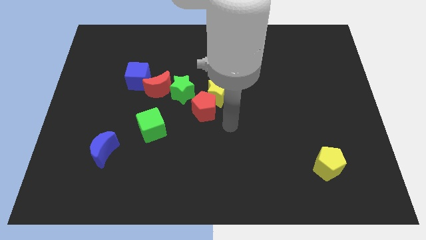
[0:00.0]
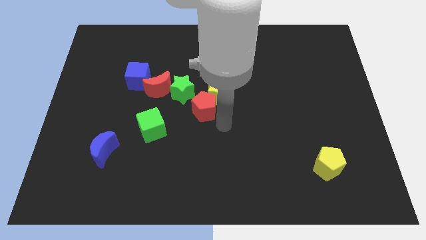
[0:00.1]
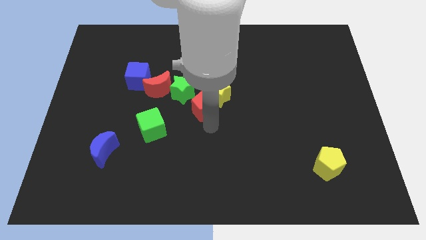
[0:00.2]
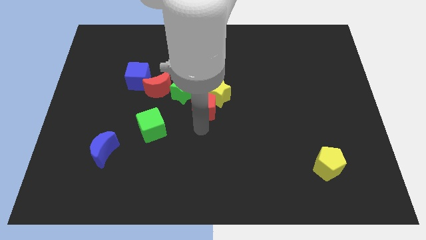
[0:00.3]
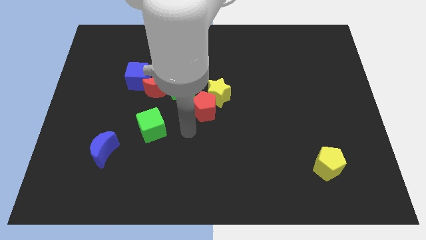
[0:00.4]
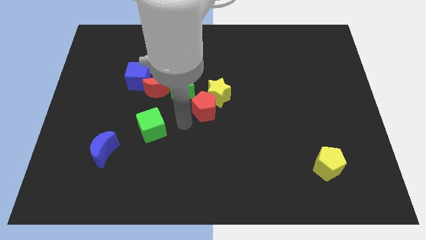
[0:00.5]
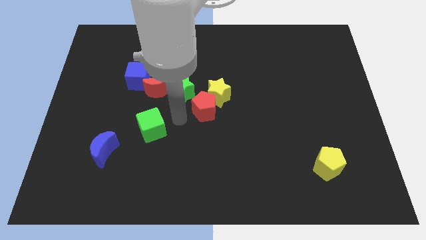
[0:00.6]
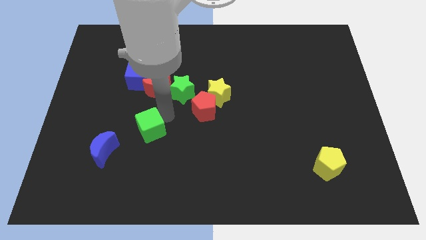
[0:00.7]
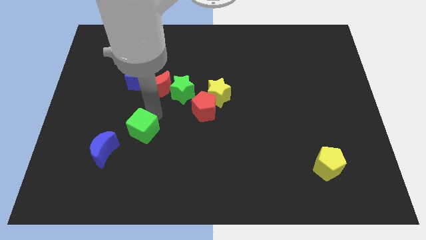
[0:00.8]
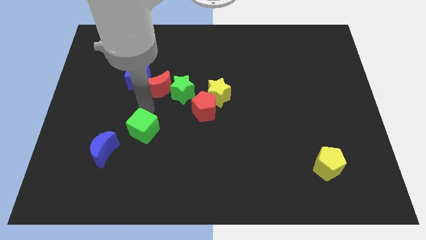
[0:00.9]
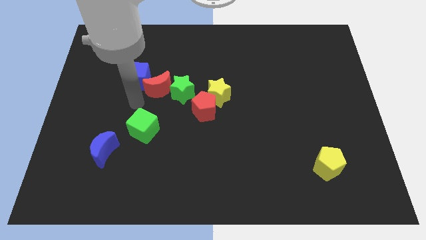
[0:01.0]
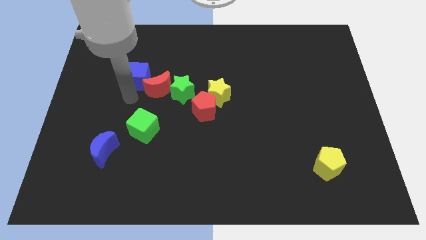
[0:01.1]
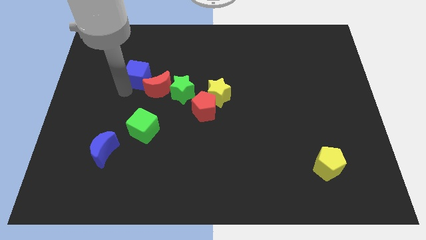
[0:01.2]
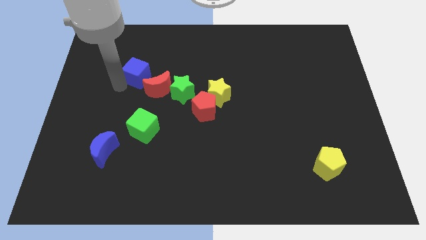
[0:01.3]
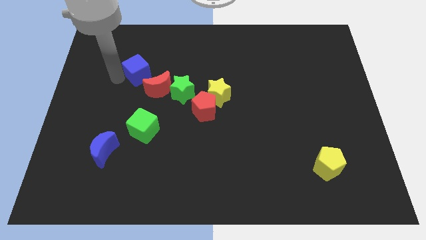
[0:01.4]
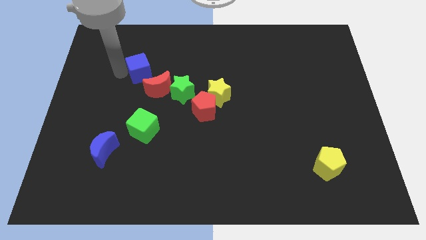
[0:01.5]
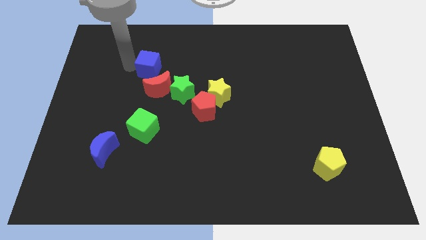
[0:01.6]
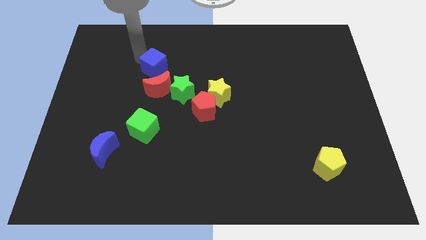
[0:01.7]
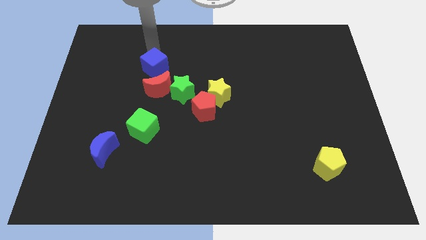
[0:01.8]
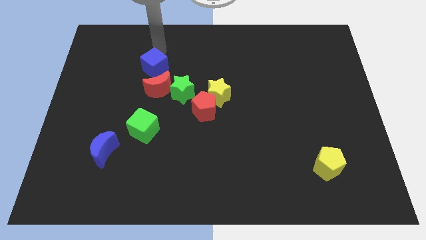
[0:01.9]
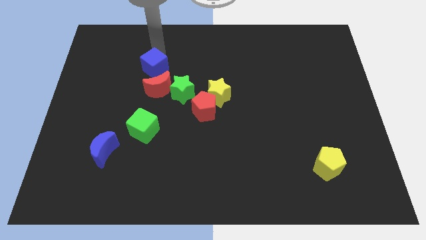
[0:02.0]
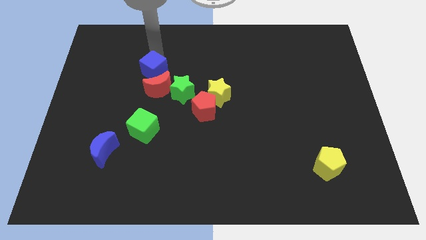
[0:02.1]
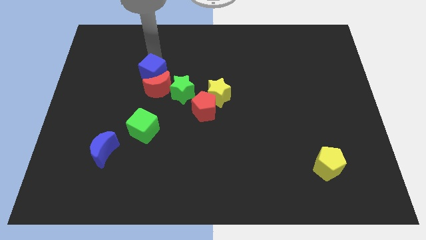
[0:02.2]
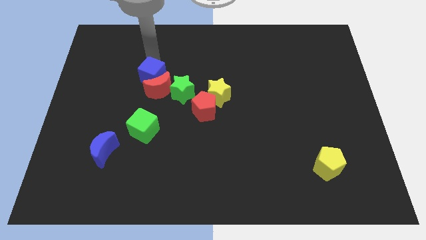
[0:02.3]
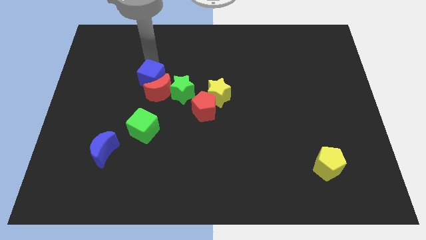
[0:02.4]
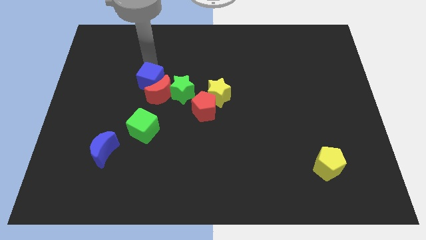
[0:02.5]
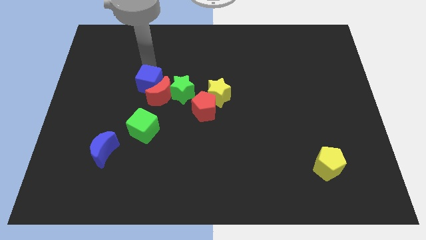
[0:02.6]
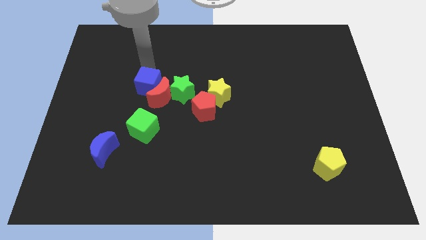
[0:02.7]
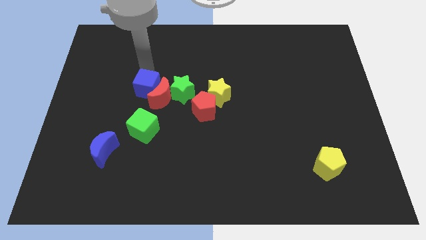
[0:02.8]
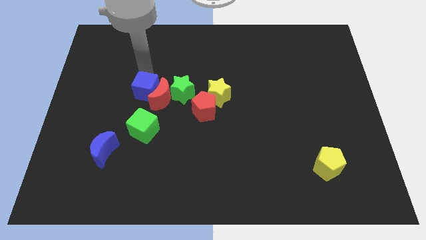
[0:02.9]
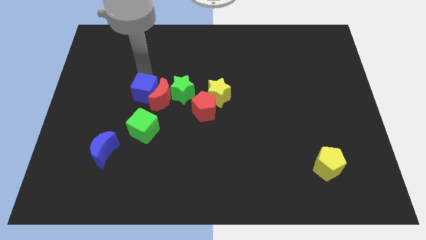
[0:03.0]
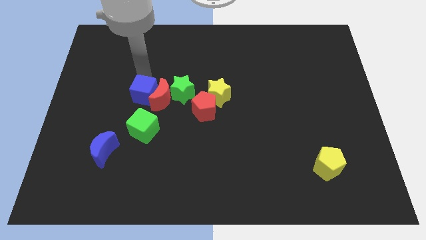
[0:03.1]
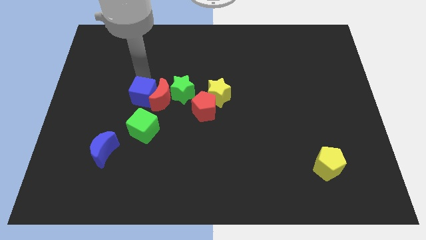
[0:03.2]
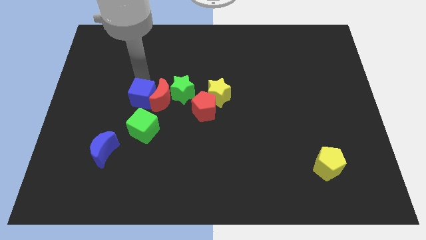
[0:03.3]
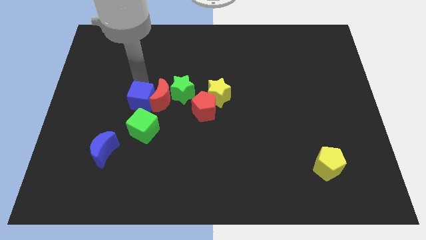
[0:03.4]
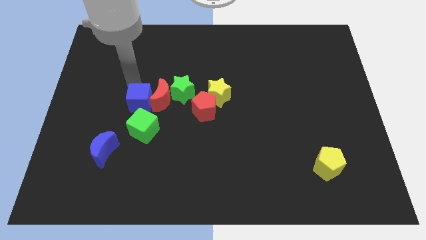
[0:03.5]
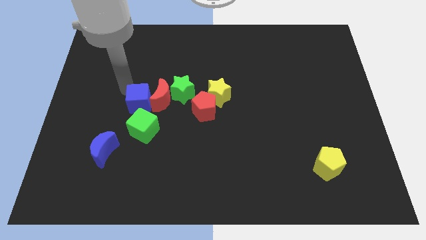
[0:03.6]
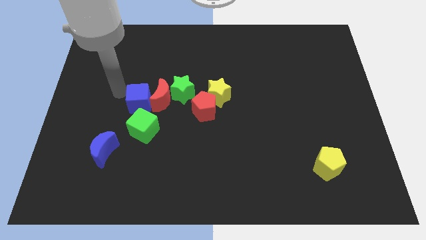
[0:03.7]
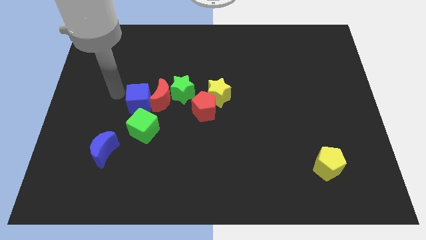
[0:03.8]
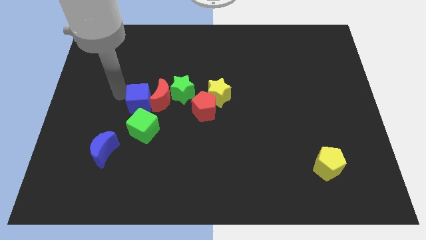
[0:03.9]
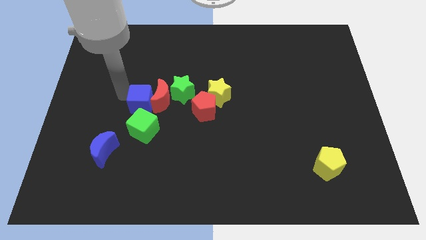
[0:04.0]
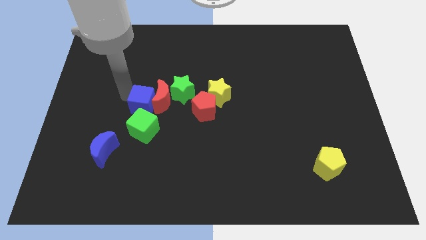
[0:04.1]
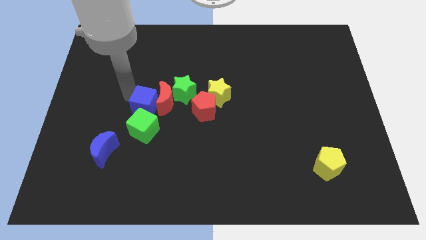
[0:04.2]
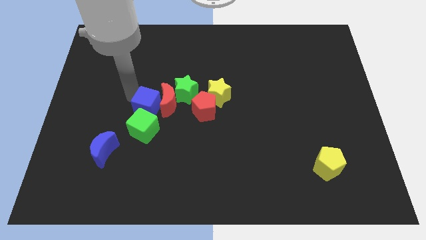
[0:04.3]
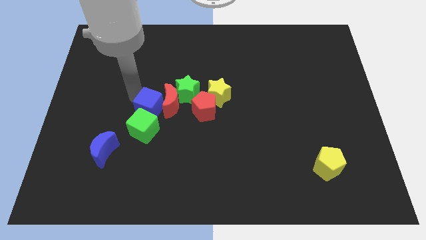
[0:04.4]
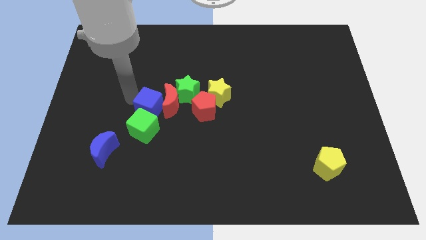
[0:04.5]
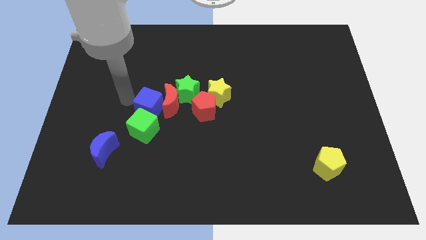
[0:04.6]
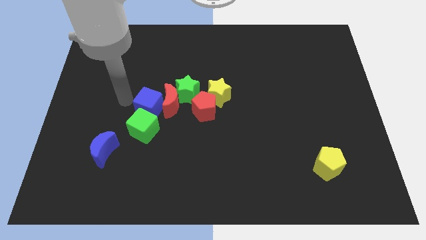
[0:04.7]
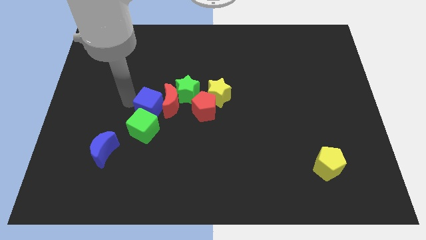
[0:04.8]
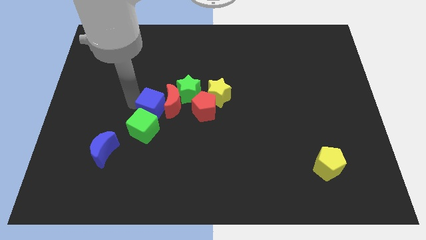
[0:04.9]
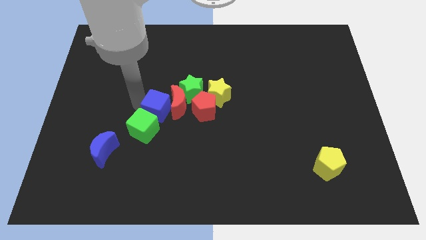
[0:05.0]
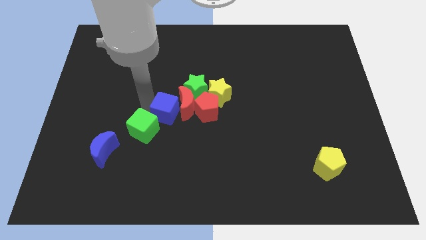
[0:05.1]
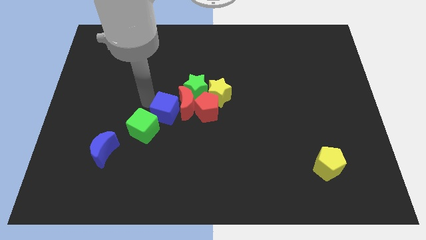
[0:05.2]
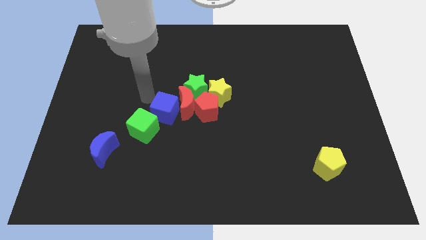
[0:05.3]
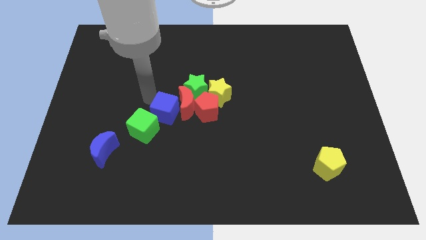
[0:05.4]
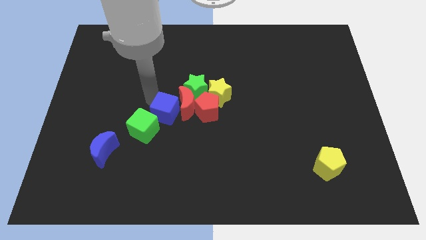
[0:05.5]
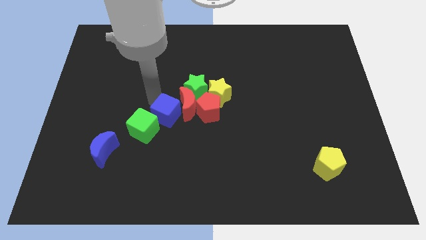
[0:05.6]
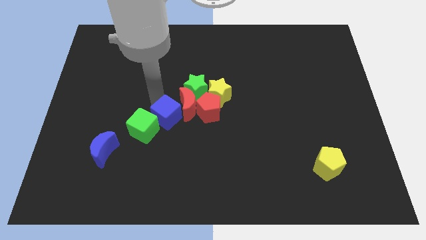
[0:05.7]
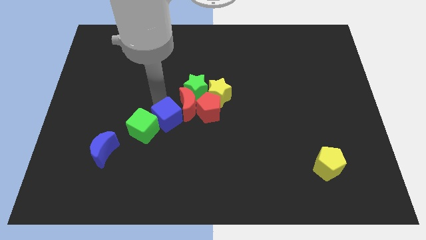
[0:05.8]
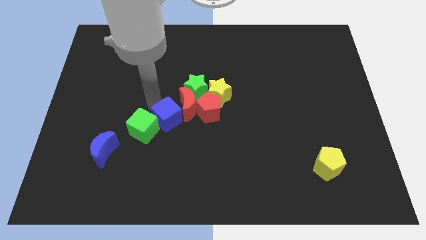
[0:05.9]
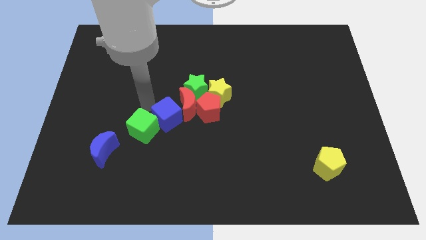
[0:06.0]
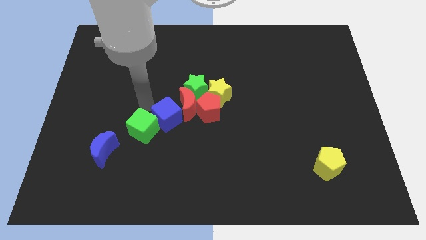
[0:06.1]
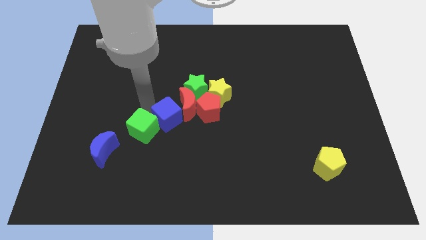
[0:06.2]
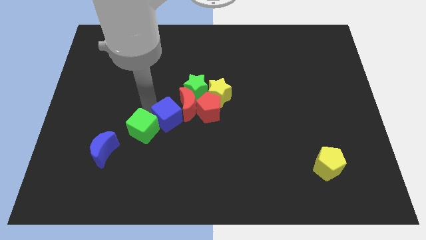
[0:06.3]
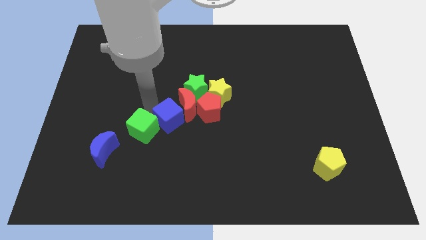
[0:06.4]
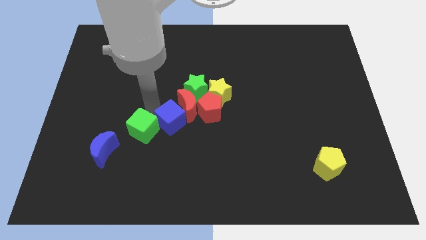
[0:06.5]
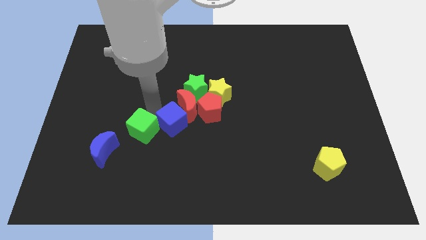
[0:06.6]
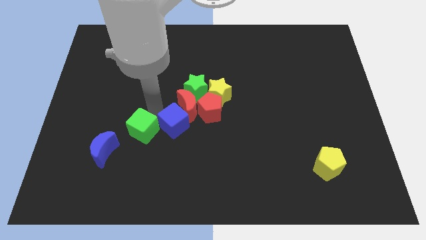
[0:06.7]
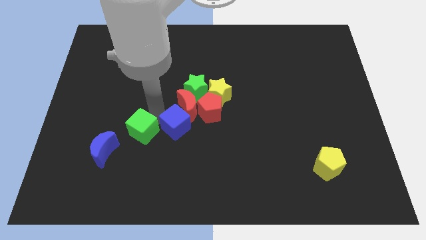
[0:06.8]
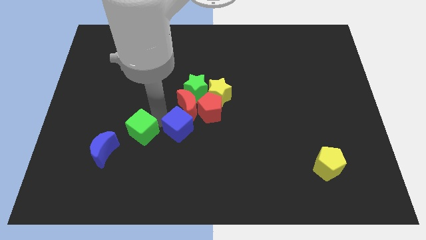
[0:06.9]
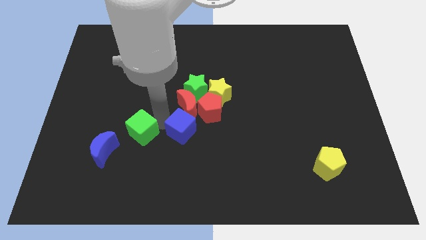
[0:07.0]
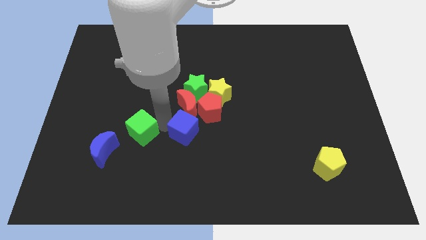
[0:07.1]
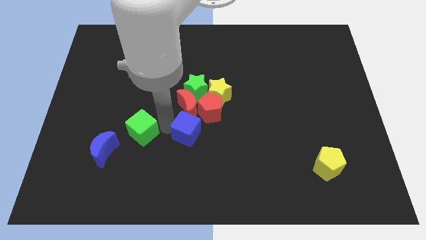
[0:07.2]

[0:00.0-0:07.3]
slide the blue cube down and to the right diagonally

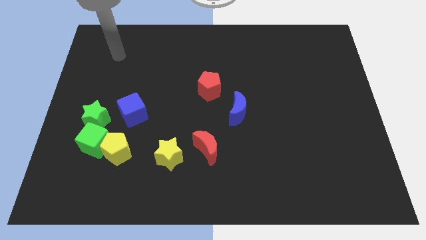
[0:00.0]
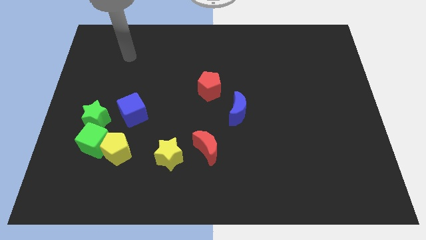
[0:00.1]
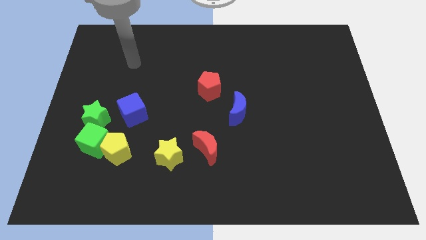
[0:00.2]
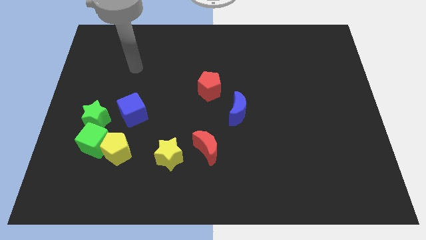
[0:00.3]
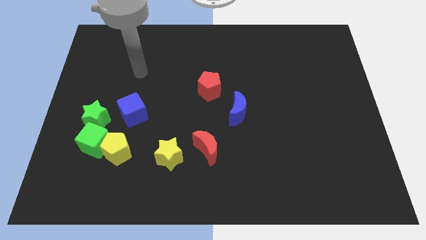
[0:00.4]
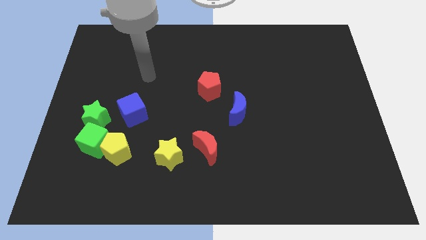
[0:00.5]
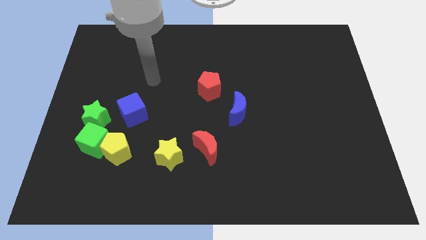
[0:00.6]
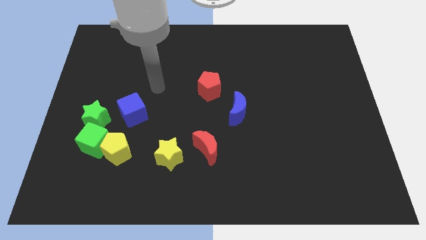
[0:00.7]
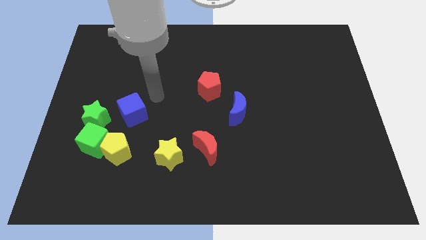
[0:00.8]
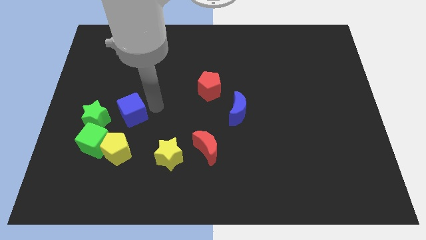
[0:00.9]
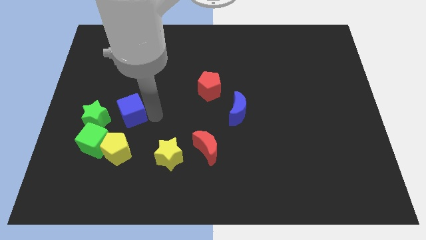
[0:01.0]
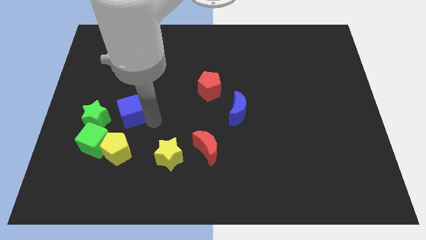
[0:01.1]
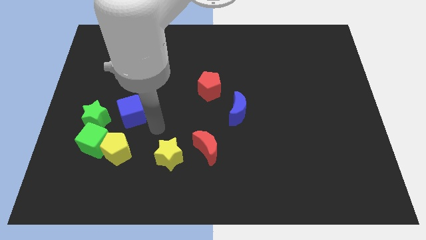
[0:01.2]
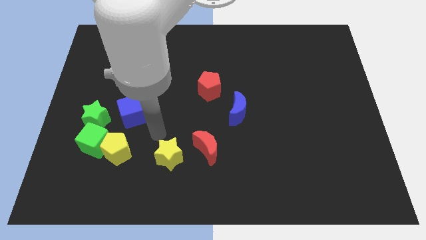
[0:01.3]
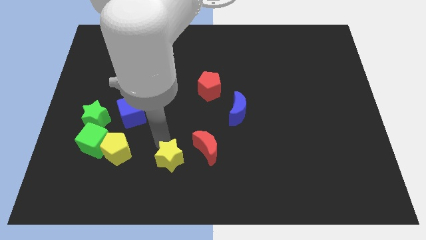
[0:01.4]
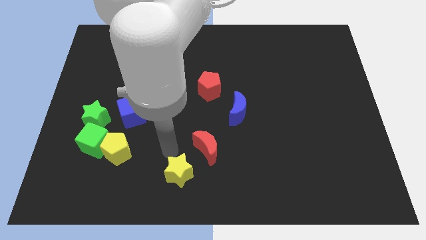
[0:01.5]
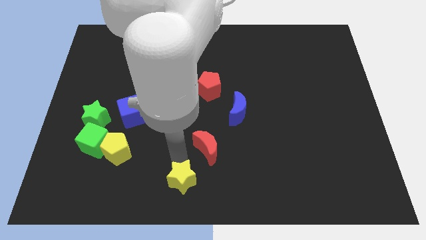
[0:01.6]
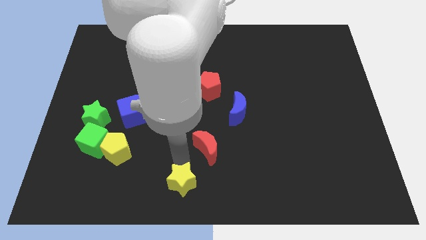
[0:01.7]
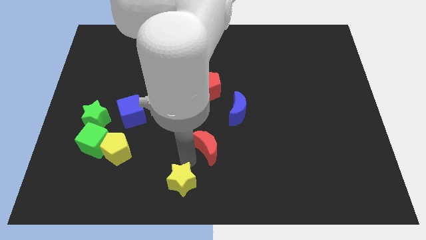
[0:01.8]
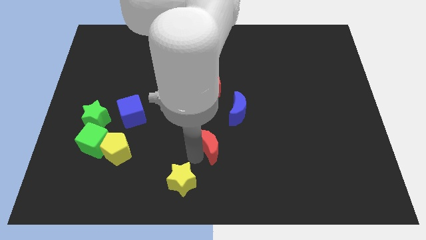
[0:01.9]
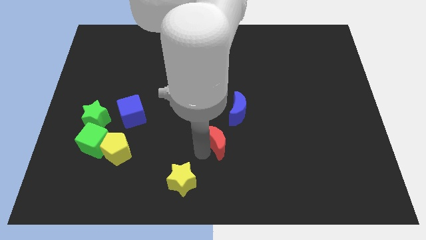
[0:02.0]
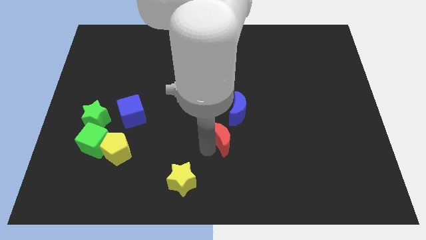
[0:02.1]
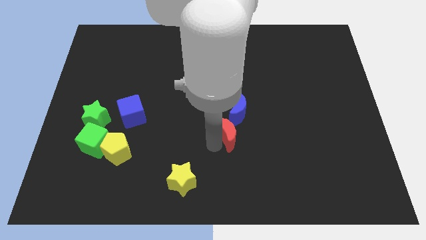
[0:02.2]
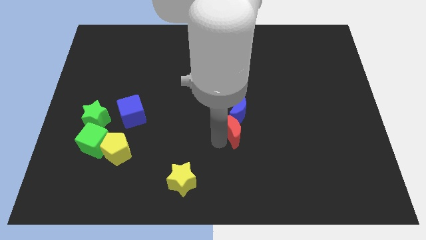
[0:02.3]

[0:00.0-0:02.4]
move the red moon slightly diagonally up and right
